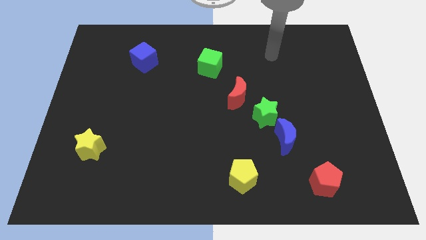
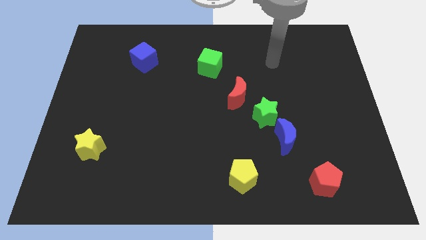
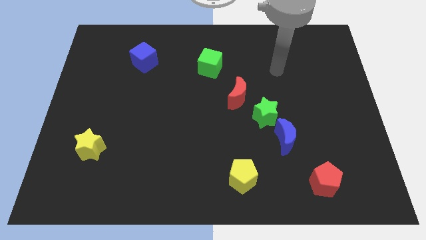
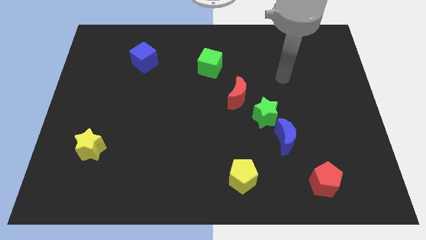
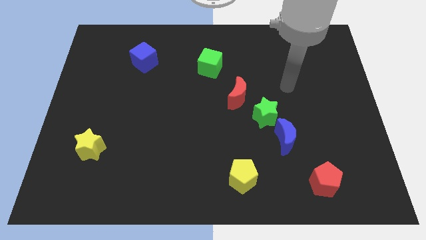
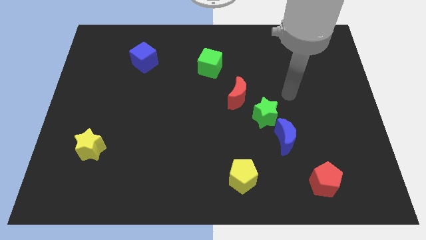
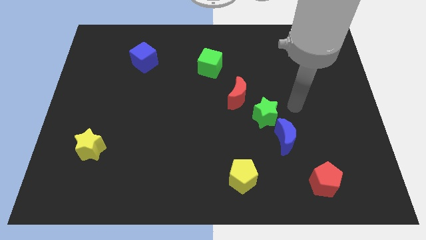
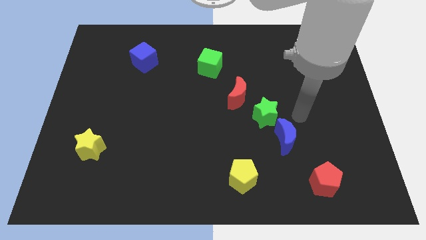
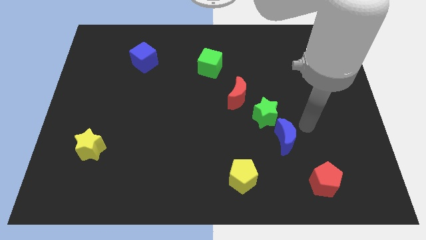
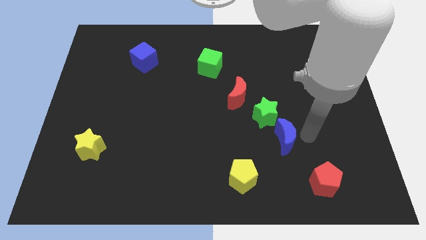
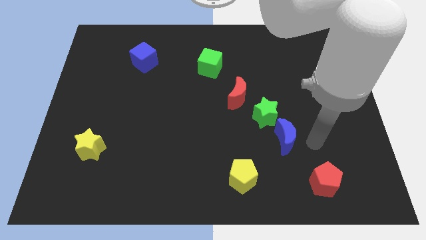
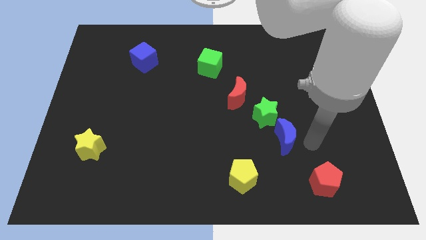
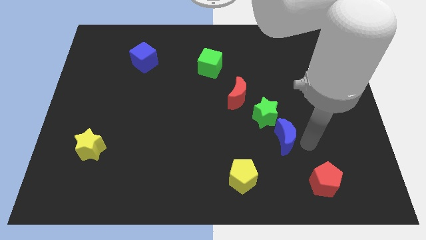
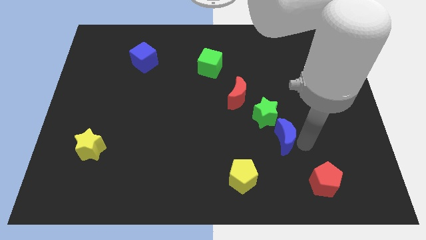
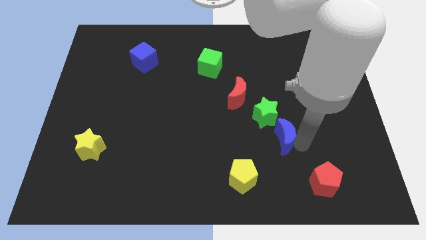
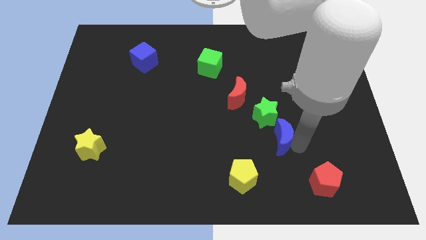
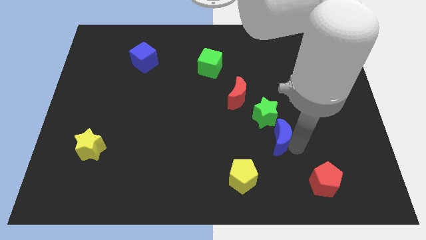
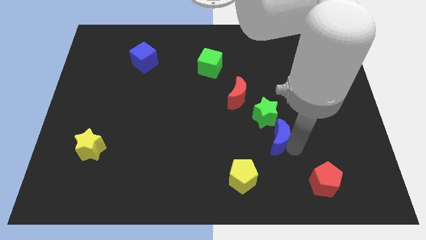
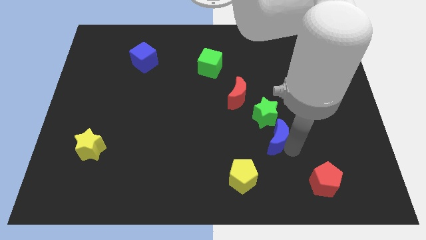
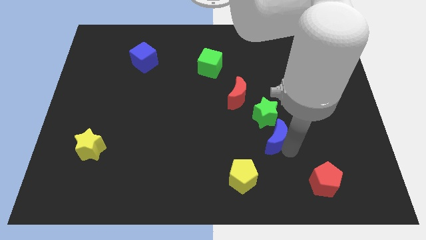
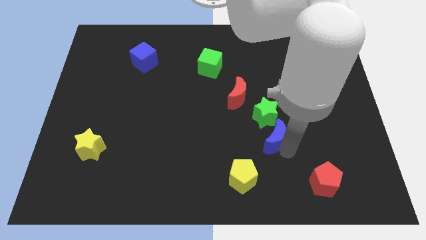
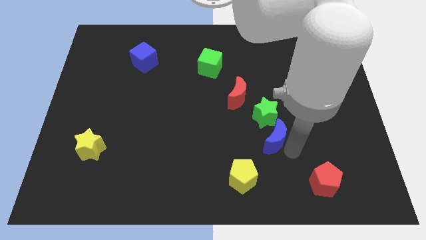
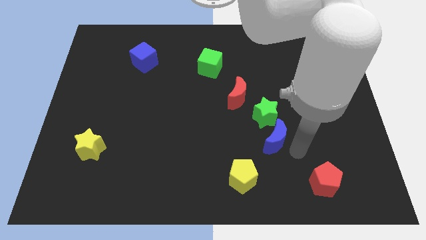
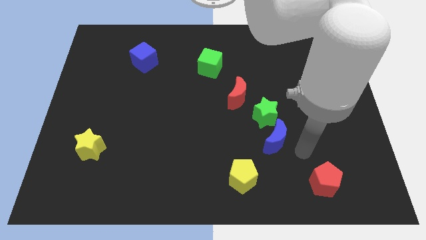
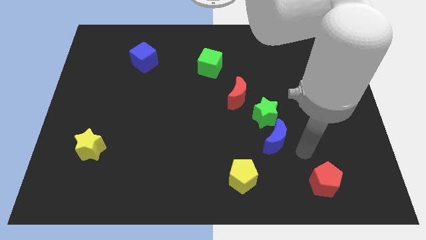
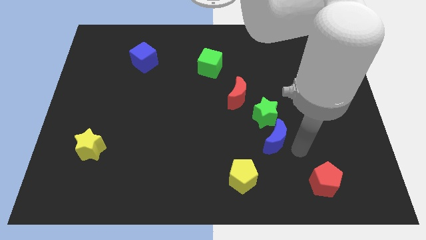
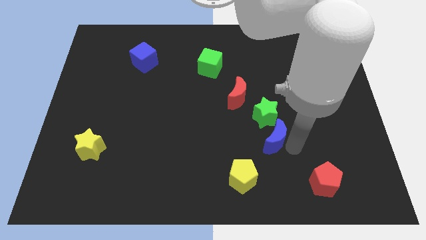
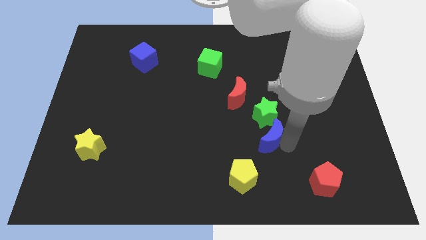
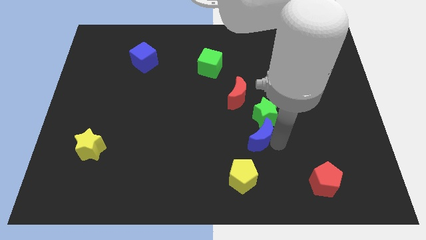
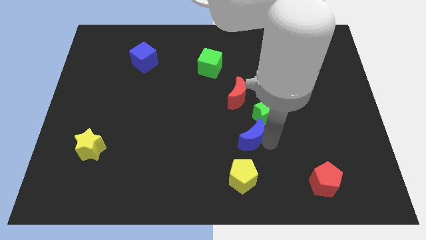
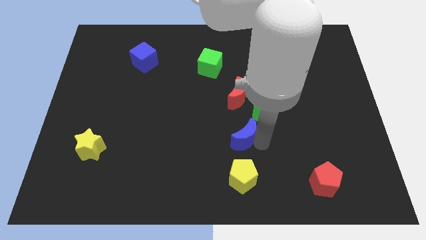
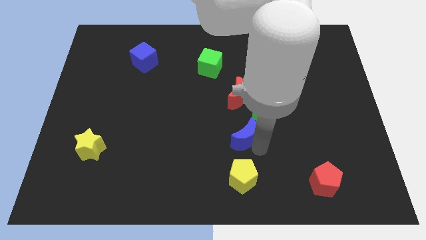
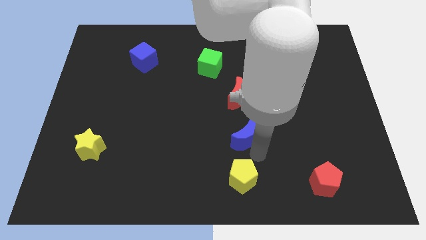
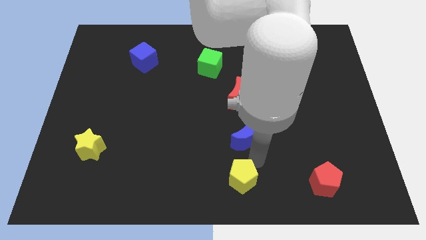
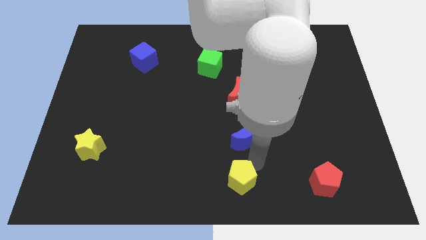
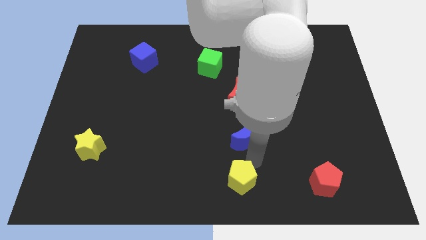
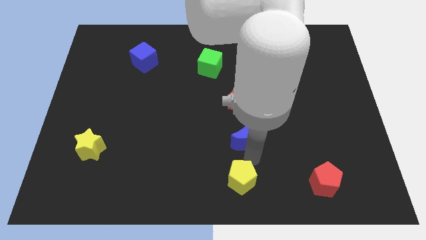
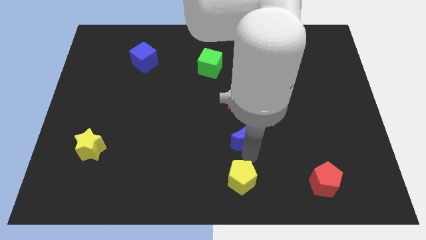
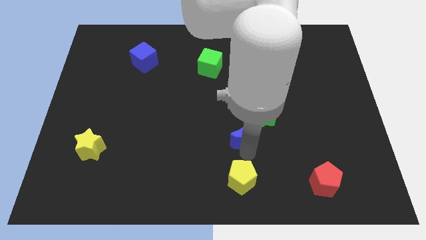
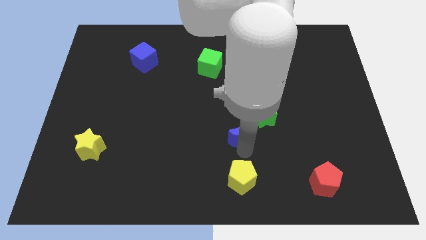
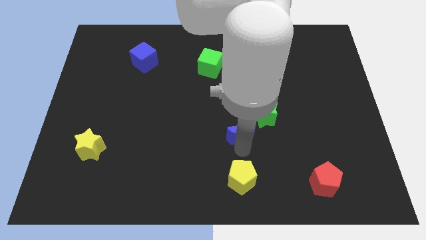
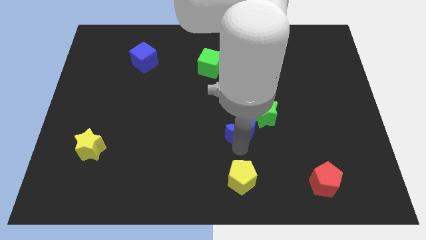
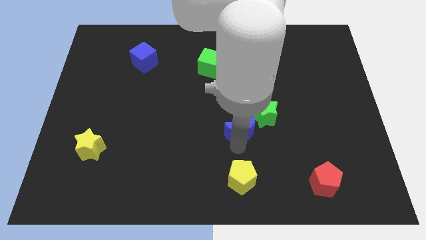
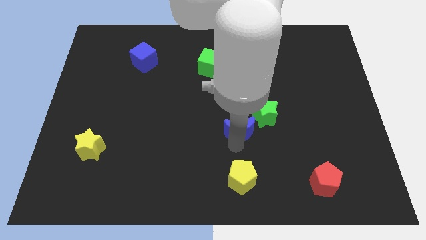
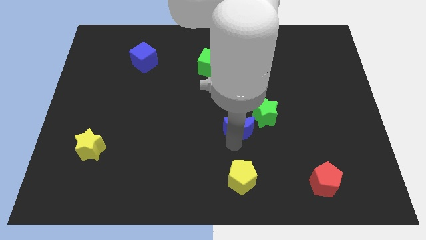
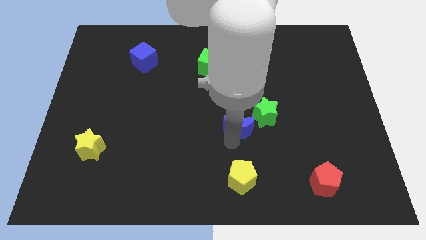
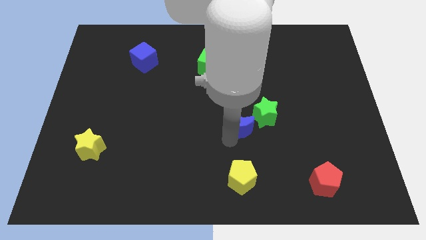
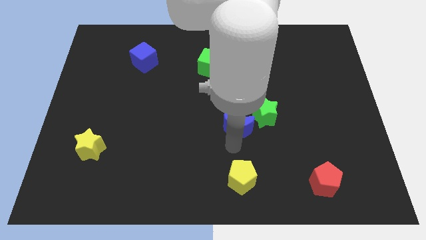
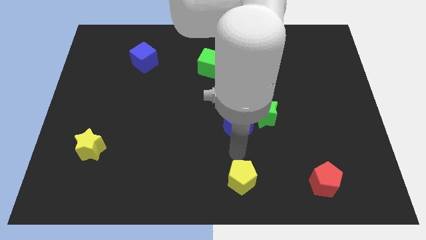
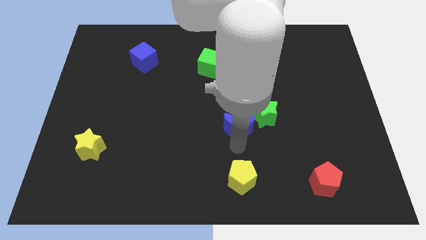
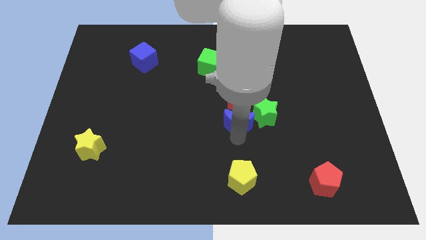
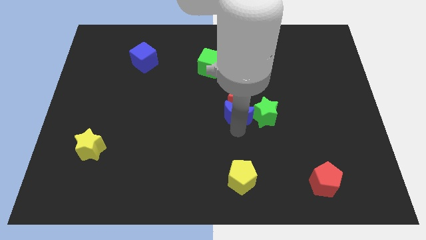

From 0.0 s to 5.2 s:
push the blue moon to the red moon

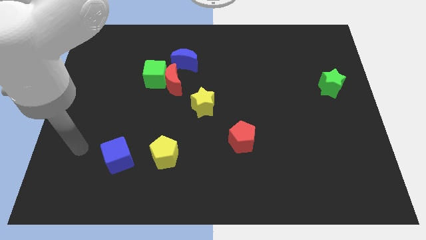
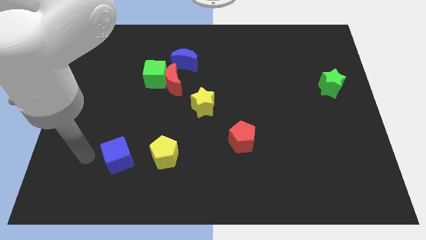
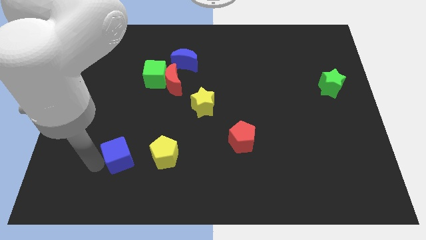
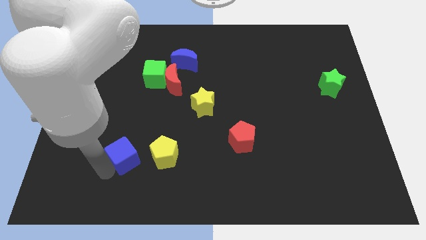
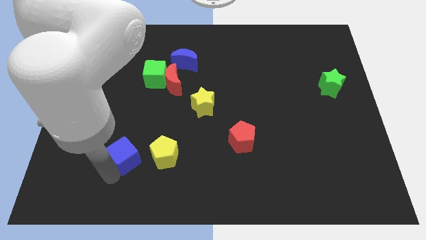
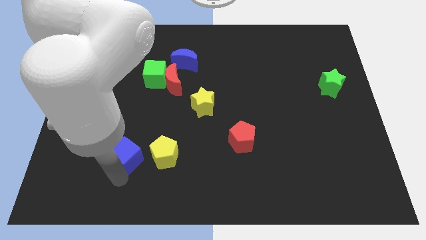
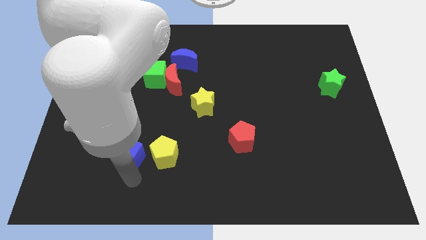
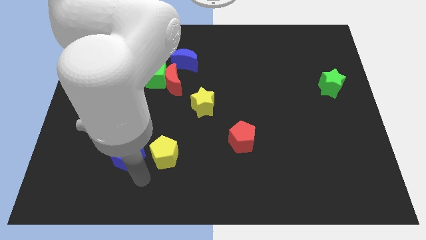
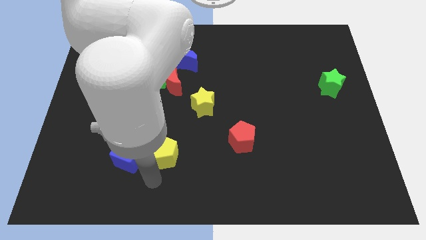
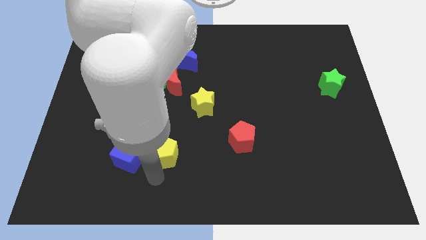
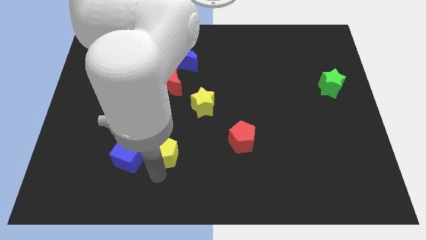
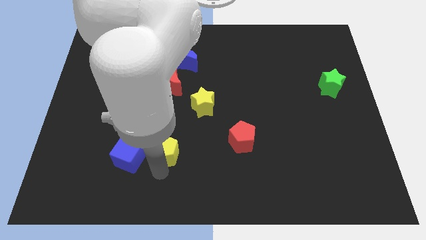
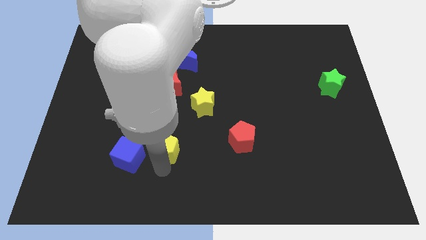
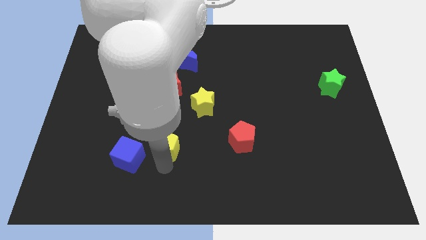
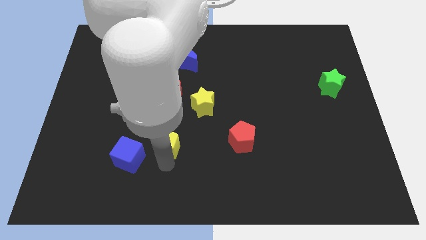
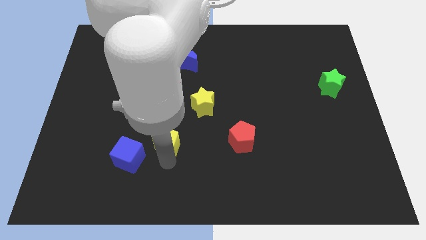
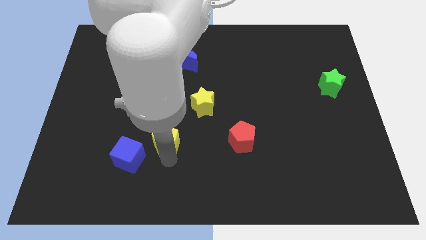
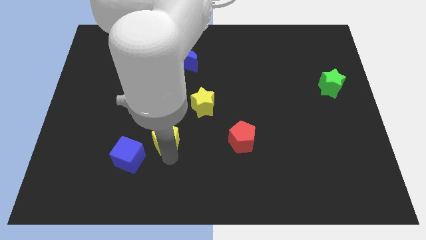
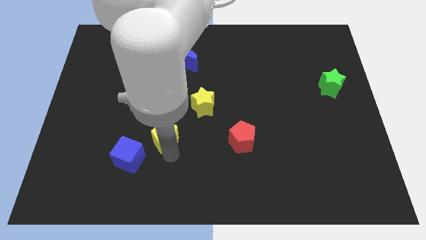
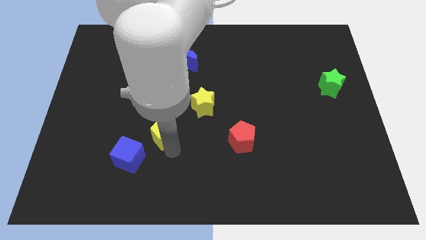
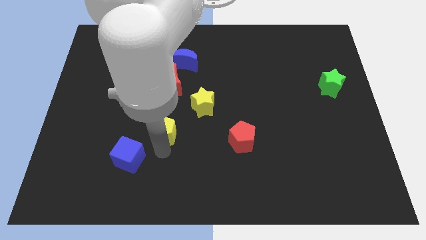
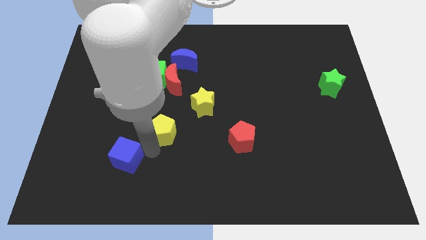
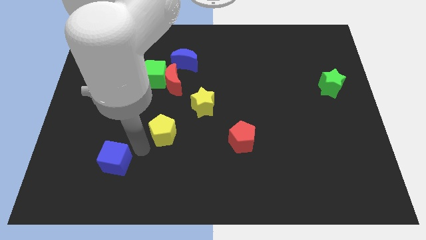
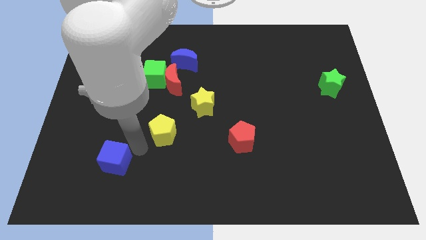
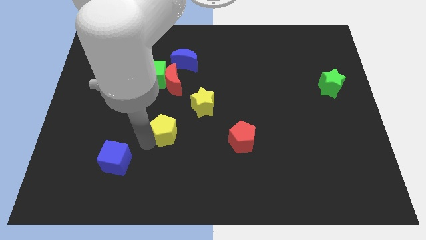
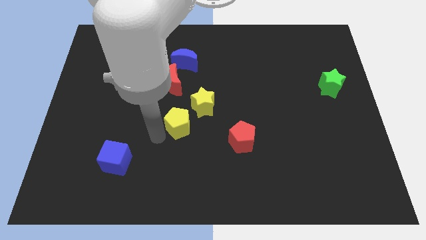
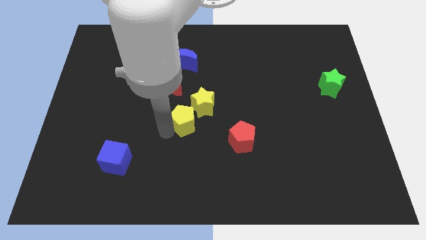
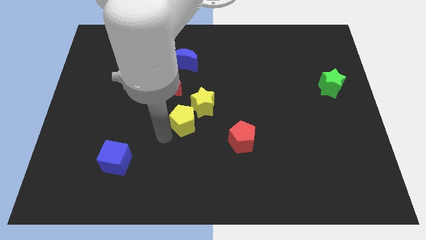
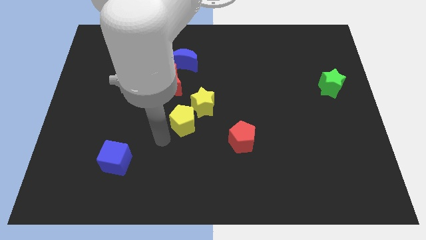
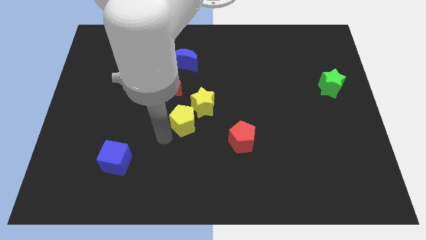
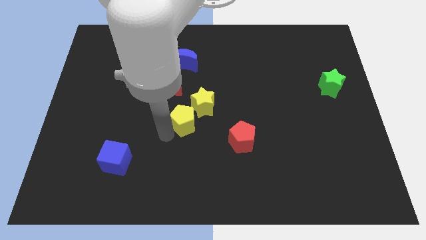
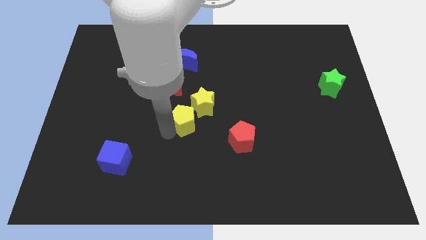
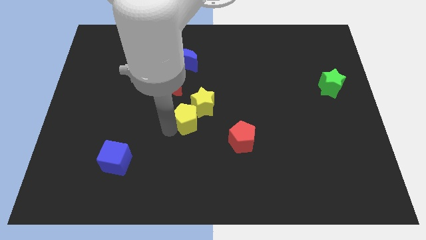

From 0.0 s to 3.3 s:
slide the yellow pentagon next to the yellow star
